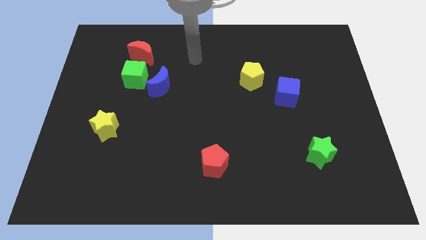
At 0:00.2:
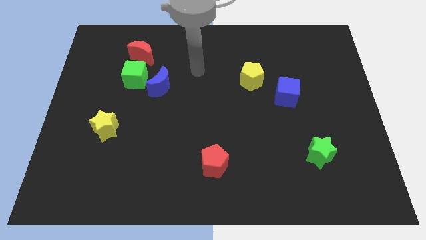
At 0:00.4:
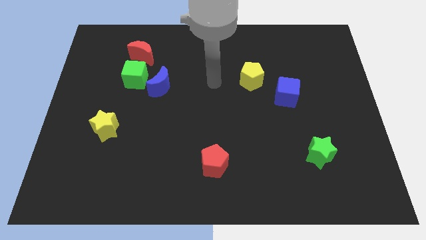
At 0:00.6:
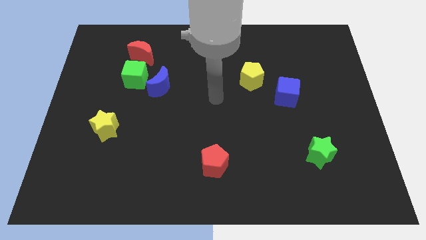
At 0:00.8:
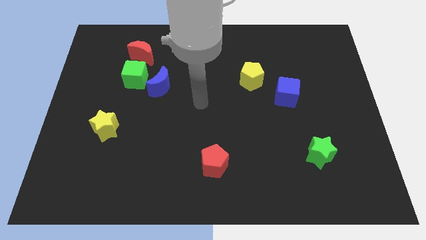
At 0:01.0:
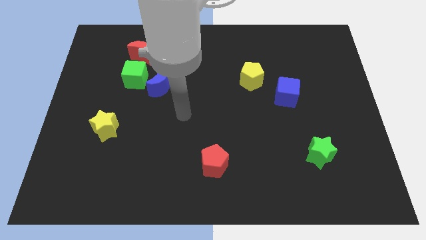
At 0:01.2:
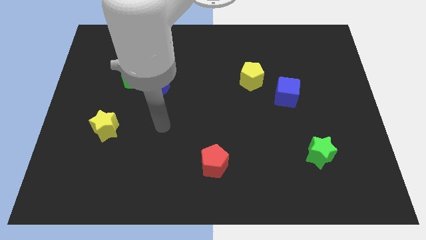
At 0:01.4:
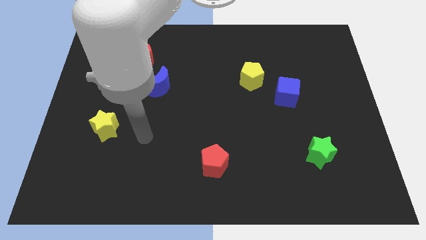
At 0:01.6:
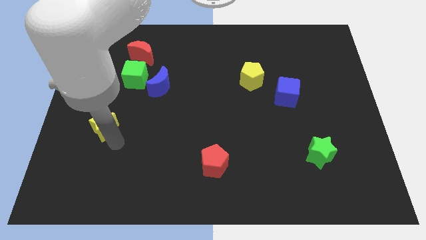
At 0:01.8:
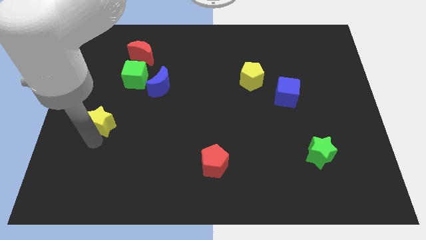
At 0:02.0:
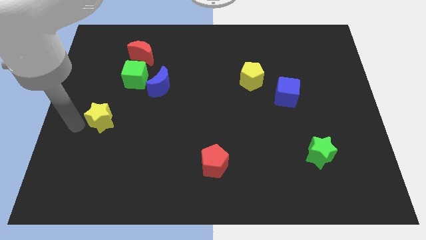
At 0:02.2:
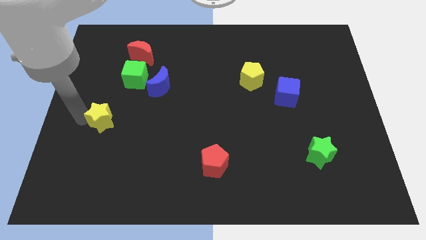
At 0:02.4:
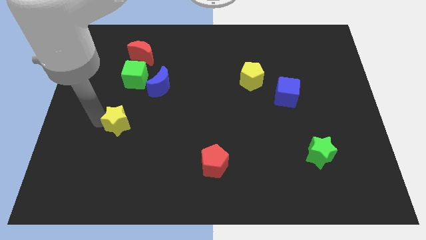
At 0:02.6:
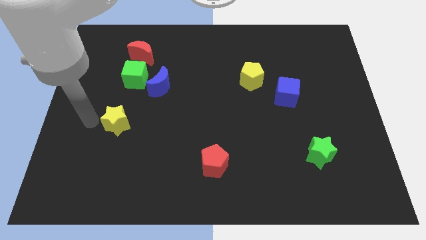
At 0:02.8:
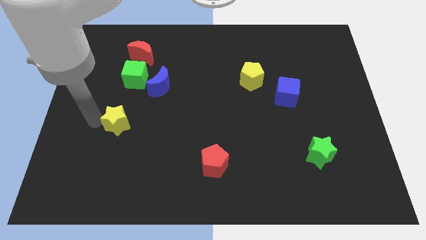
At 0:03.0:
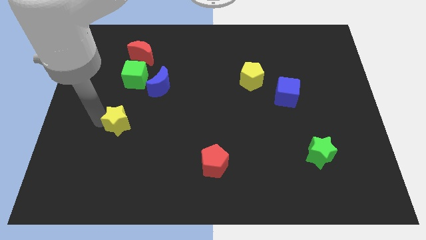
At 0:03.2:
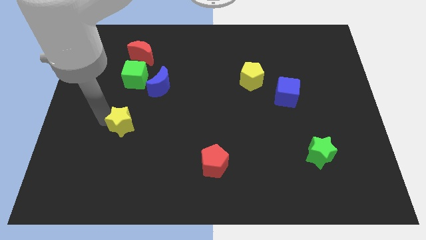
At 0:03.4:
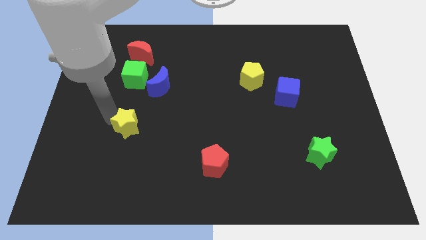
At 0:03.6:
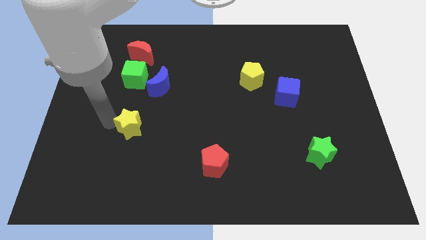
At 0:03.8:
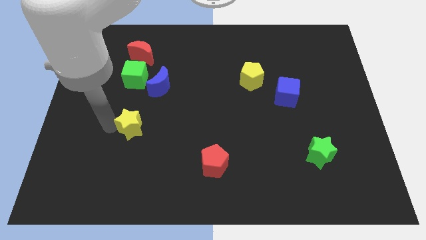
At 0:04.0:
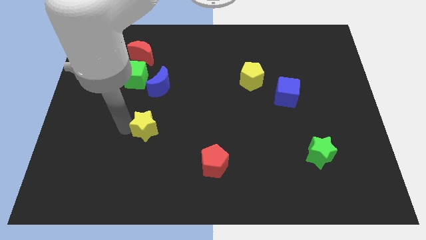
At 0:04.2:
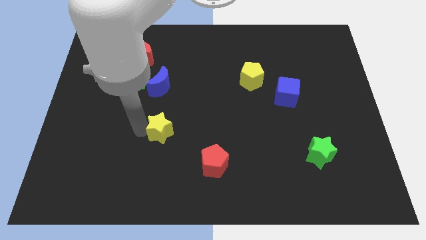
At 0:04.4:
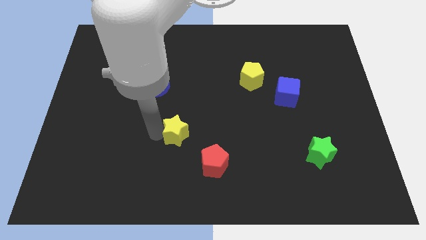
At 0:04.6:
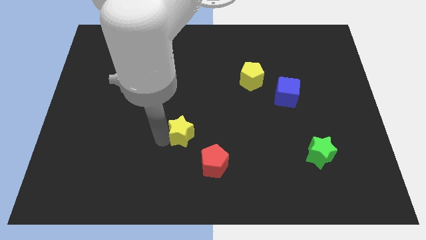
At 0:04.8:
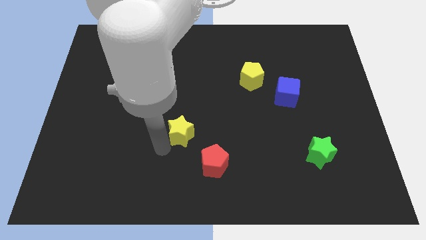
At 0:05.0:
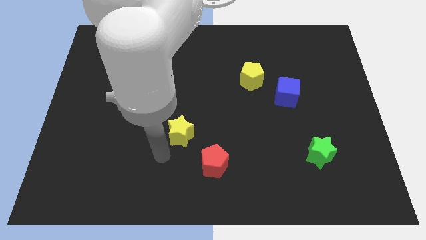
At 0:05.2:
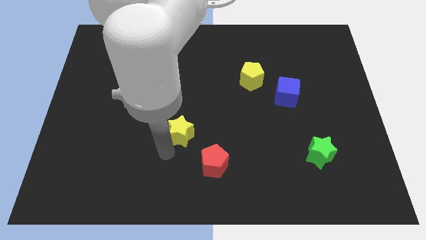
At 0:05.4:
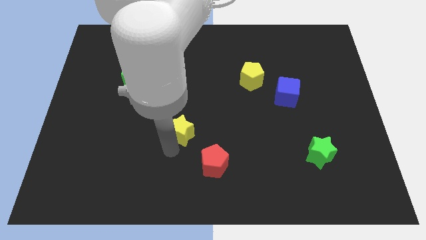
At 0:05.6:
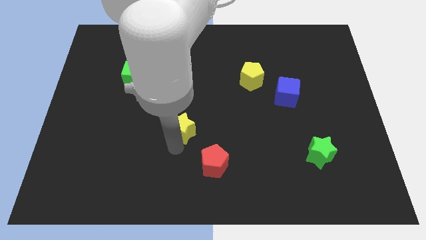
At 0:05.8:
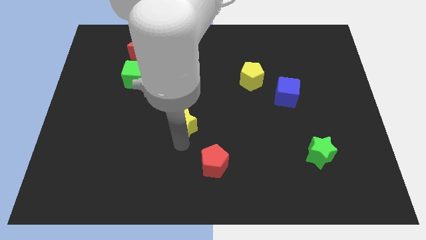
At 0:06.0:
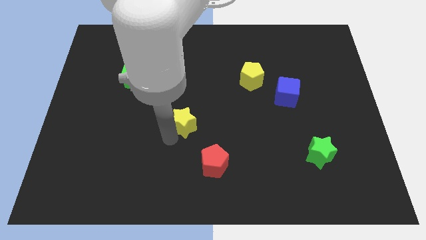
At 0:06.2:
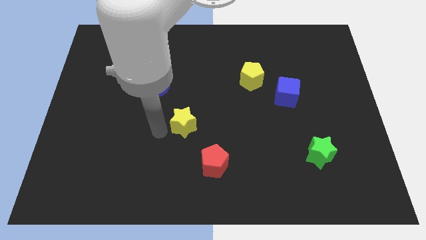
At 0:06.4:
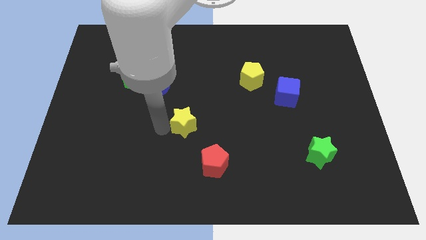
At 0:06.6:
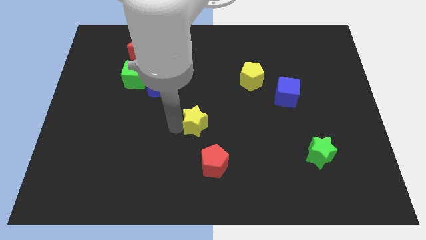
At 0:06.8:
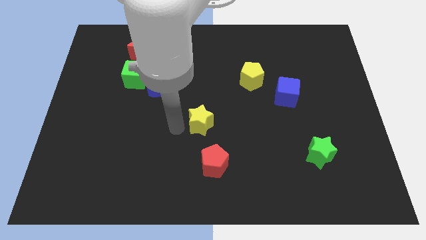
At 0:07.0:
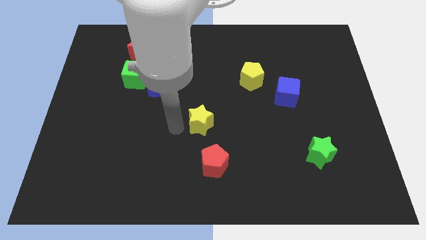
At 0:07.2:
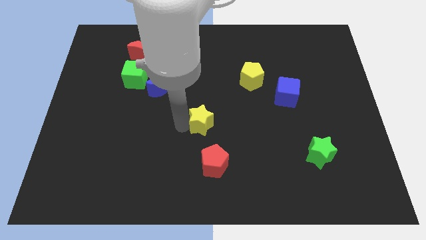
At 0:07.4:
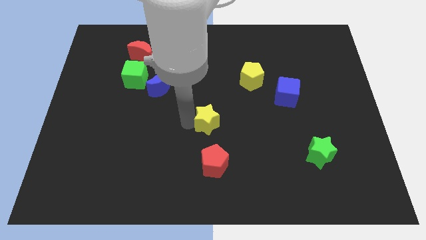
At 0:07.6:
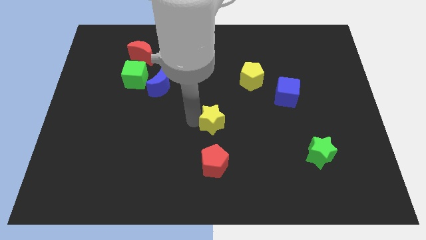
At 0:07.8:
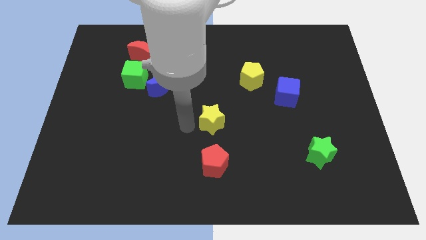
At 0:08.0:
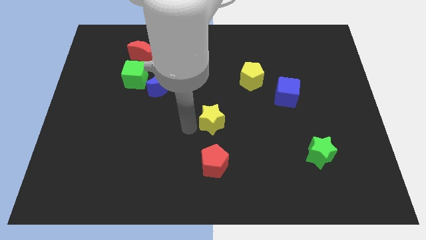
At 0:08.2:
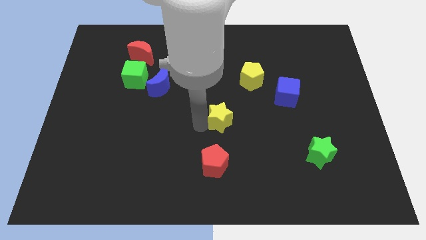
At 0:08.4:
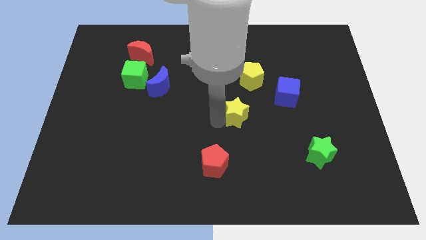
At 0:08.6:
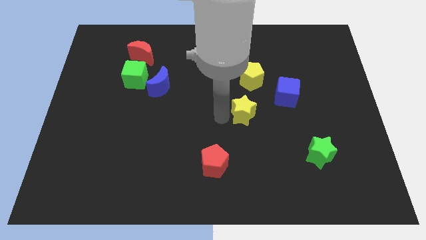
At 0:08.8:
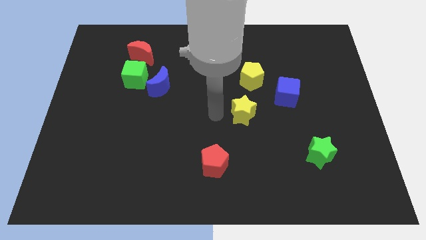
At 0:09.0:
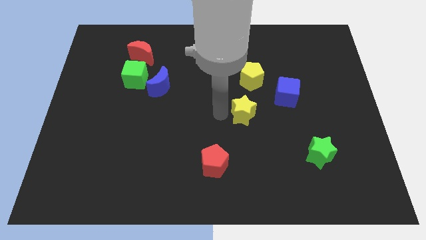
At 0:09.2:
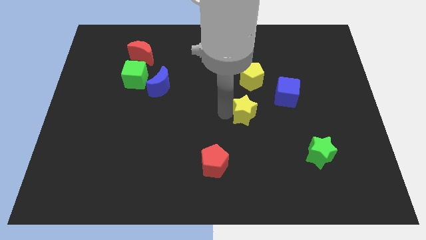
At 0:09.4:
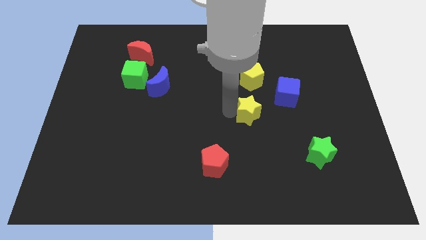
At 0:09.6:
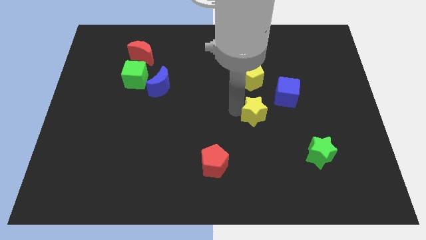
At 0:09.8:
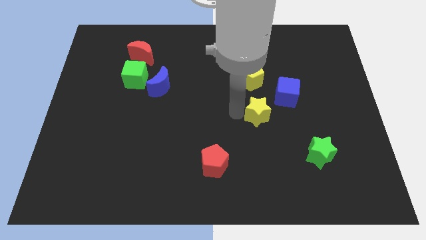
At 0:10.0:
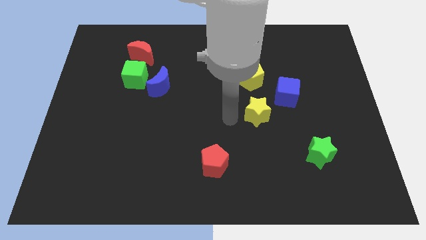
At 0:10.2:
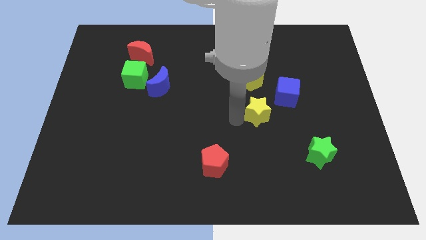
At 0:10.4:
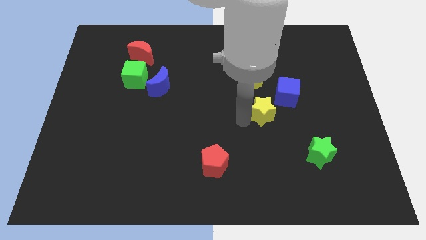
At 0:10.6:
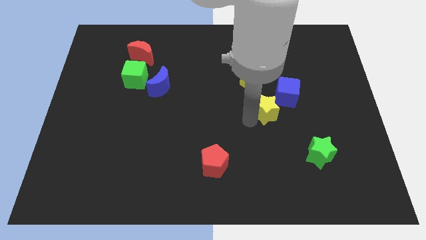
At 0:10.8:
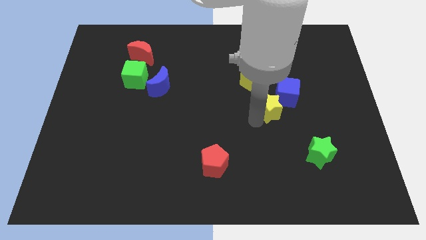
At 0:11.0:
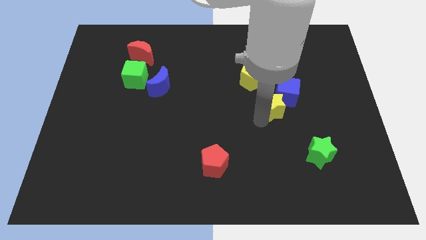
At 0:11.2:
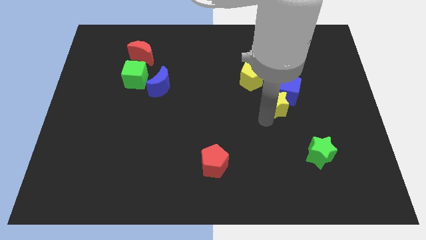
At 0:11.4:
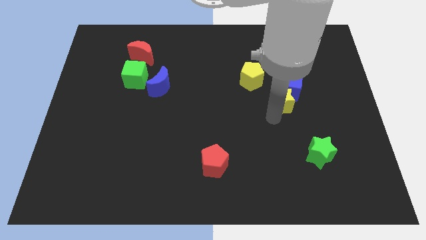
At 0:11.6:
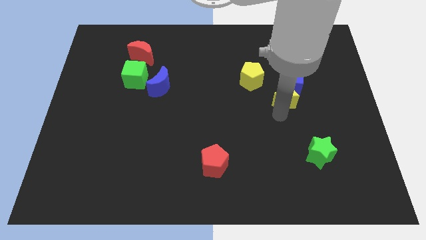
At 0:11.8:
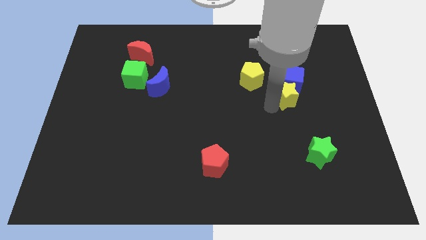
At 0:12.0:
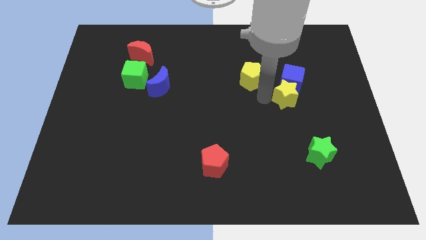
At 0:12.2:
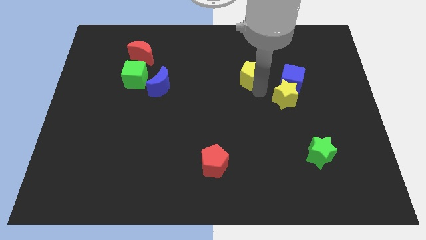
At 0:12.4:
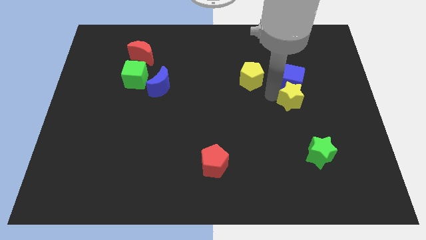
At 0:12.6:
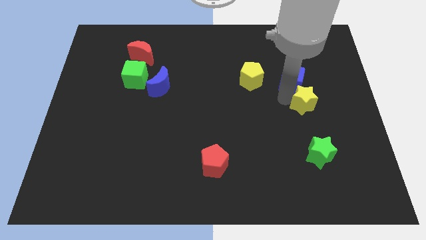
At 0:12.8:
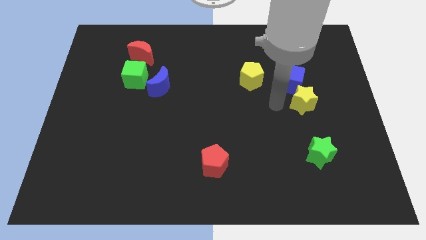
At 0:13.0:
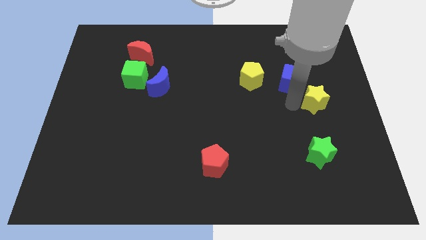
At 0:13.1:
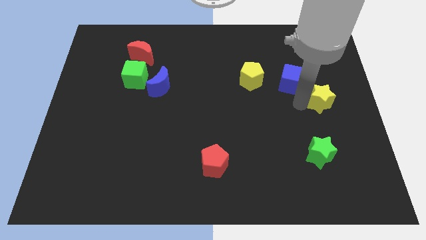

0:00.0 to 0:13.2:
push the yellow star to the right side of the board
